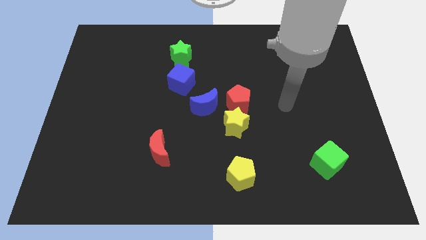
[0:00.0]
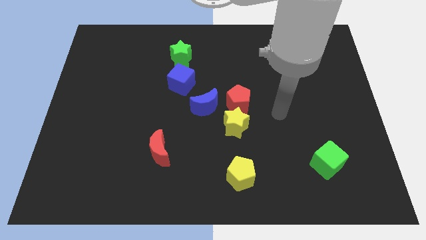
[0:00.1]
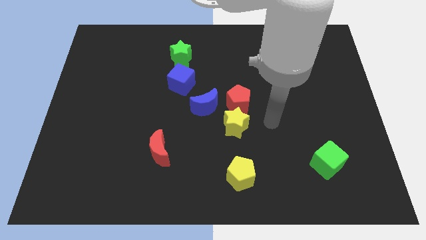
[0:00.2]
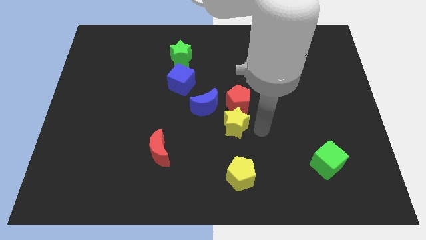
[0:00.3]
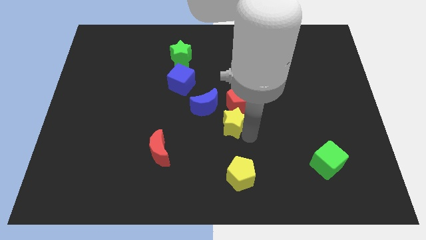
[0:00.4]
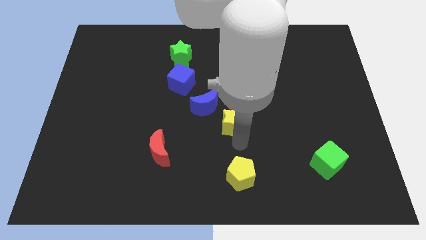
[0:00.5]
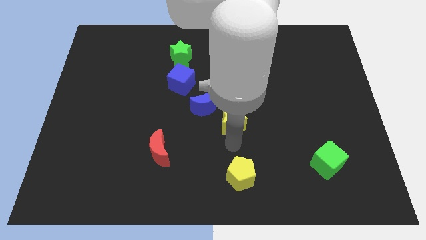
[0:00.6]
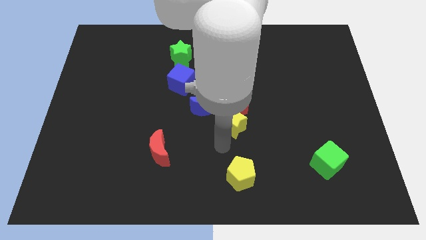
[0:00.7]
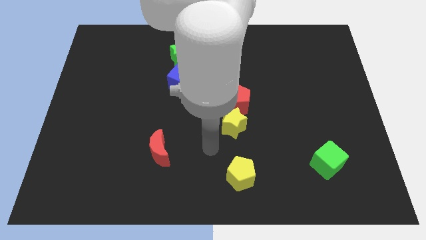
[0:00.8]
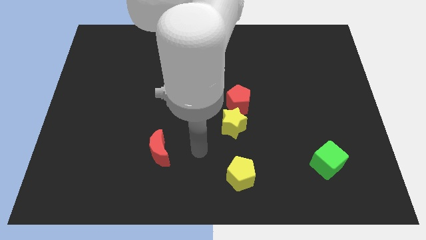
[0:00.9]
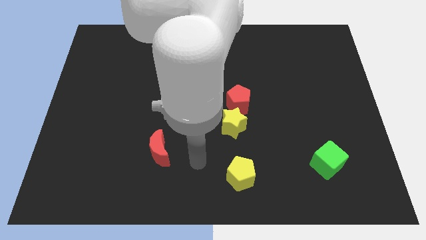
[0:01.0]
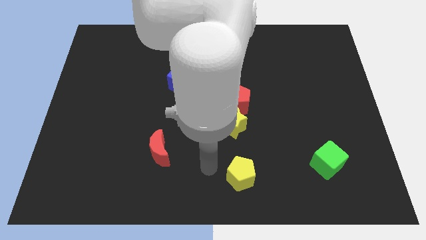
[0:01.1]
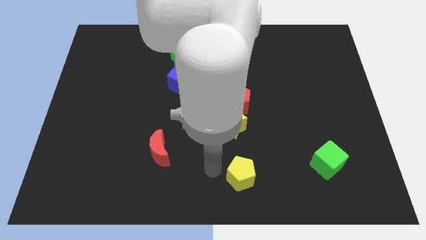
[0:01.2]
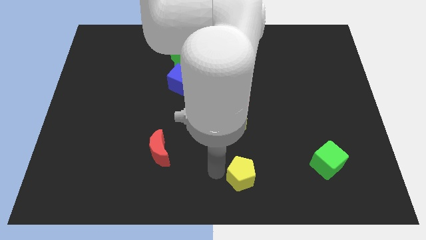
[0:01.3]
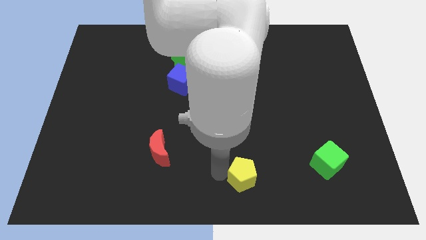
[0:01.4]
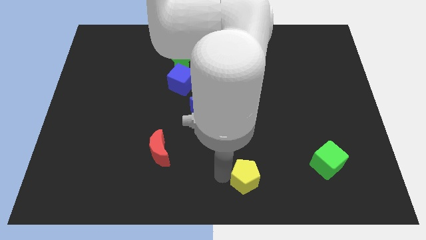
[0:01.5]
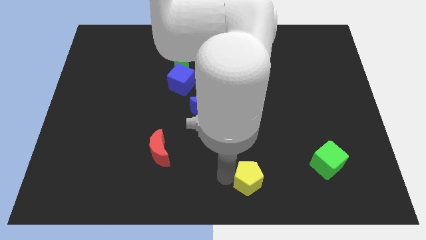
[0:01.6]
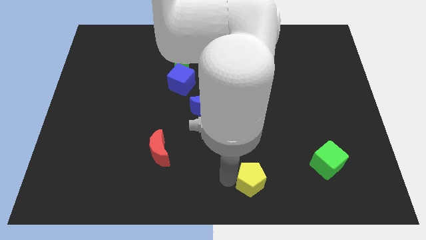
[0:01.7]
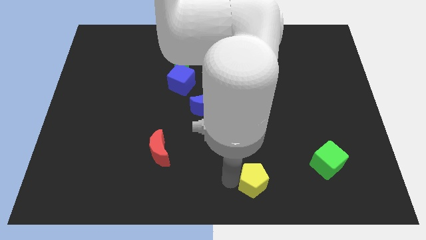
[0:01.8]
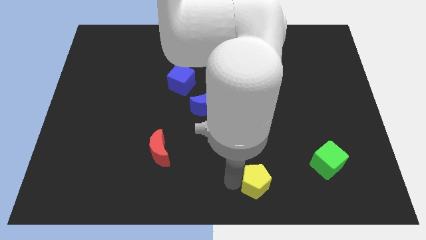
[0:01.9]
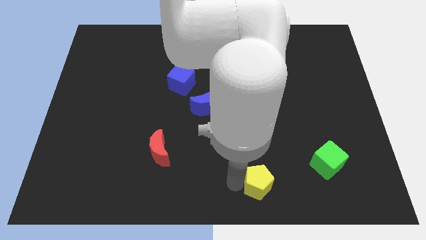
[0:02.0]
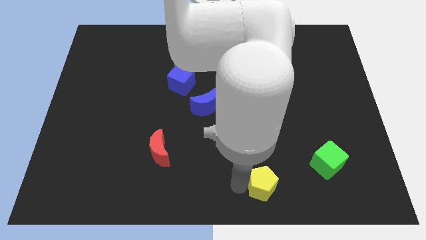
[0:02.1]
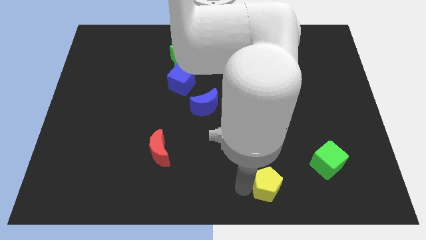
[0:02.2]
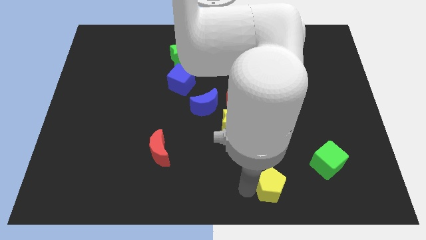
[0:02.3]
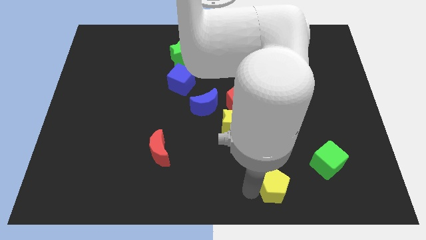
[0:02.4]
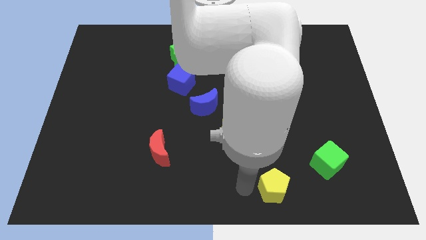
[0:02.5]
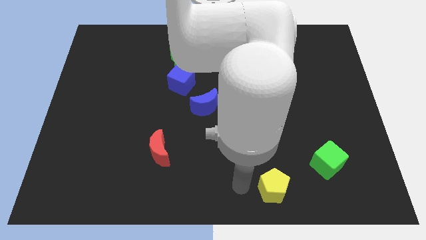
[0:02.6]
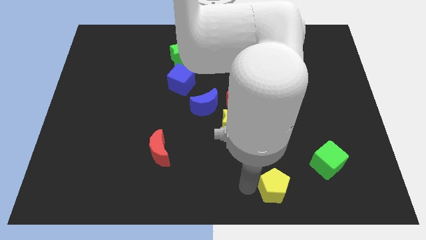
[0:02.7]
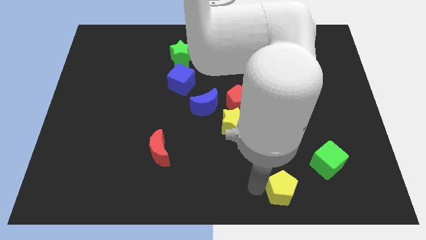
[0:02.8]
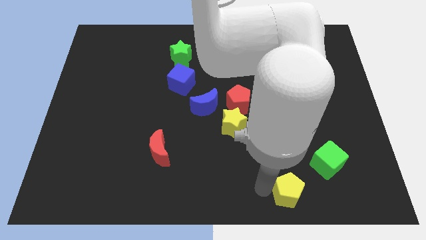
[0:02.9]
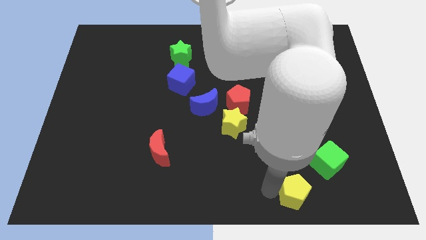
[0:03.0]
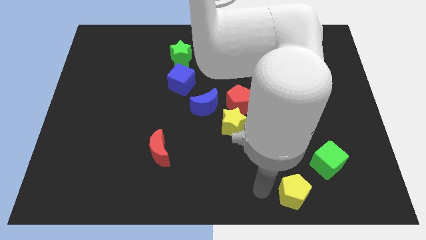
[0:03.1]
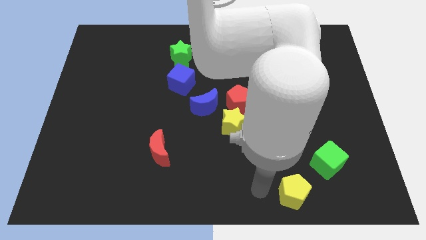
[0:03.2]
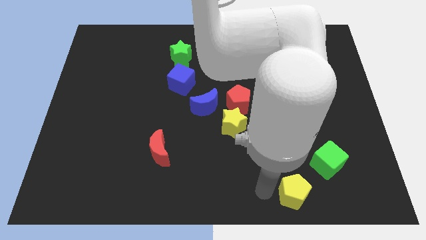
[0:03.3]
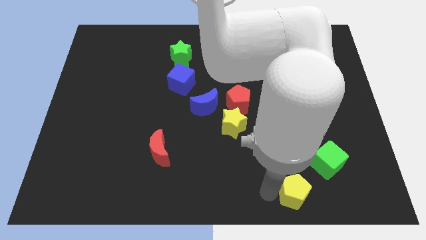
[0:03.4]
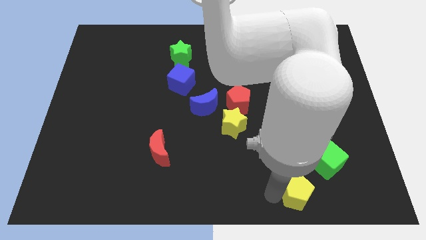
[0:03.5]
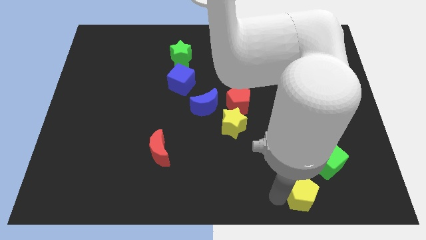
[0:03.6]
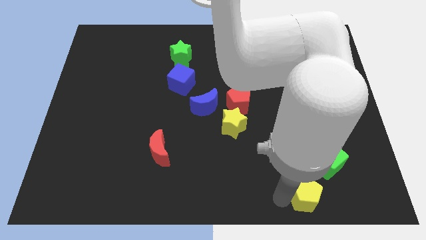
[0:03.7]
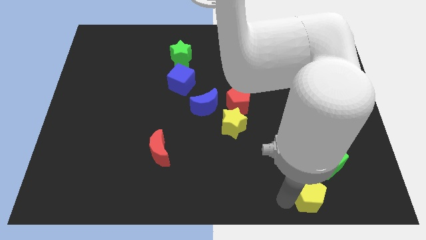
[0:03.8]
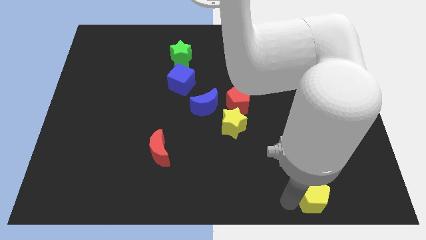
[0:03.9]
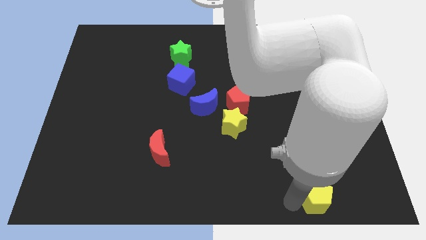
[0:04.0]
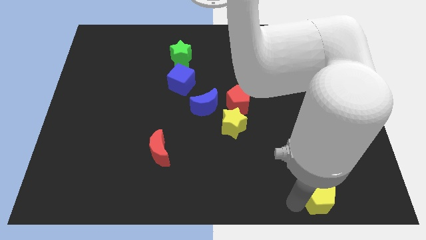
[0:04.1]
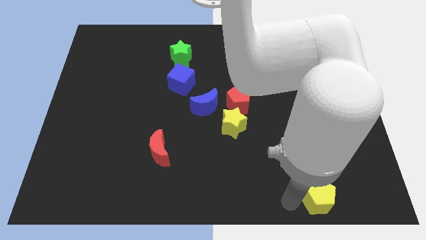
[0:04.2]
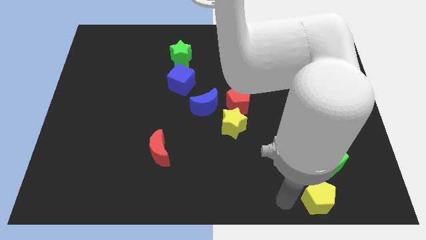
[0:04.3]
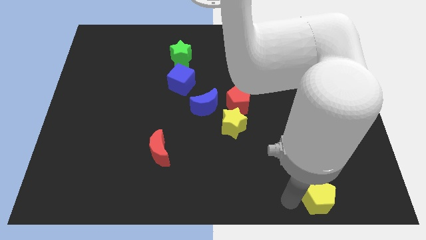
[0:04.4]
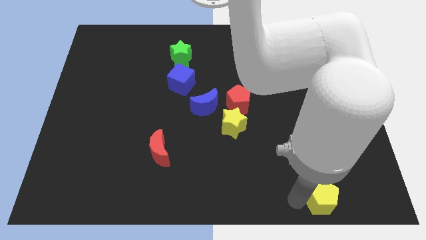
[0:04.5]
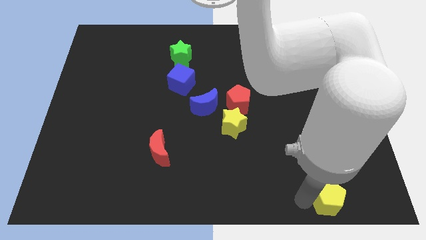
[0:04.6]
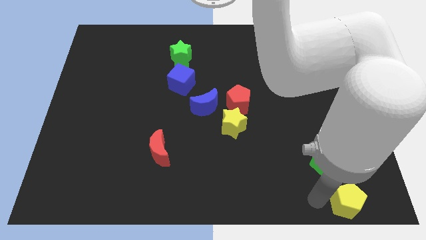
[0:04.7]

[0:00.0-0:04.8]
move the yellow pentagon to the bottom right of the board

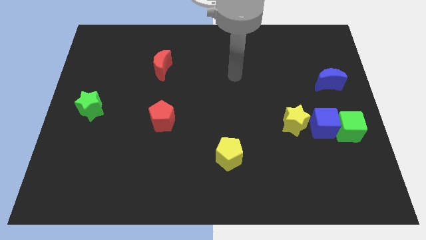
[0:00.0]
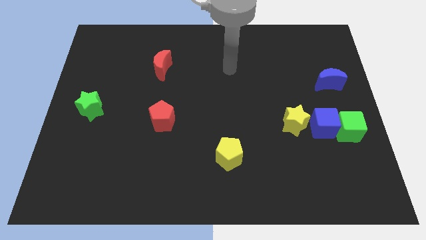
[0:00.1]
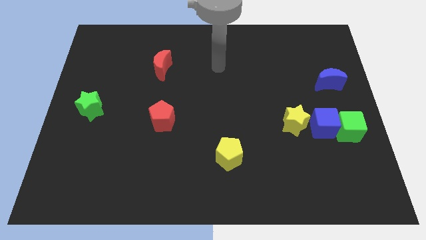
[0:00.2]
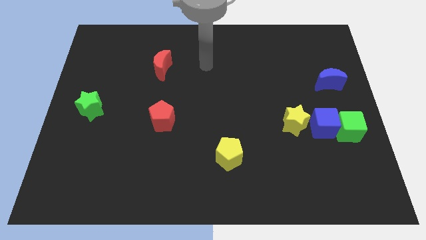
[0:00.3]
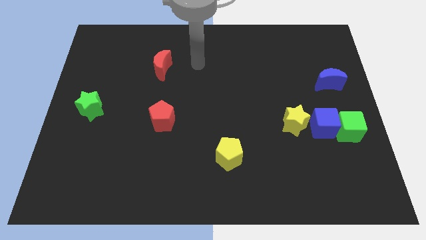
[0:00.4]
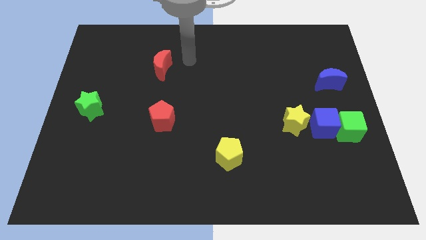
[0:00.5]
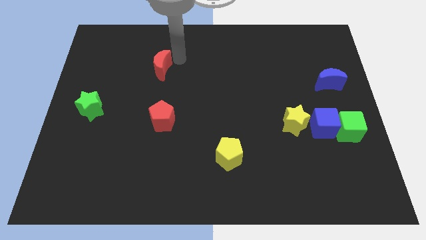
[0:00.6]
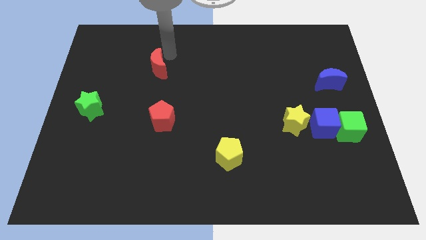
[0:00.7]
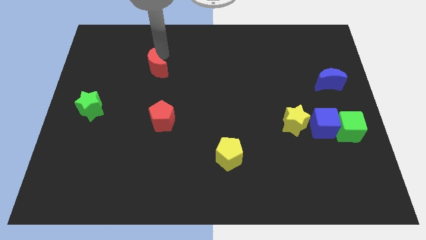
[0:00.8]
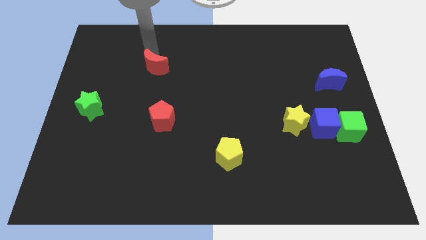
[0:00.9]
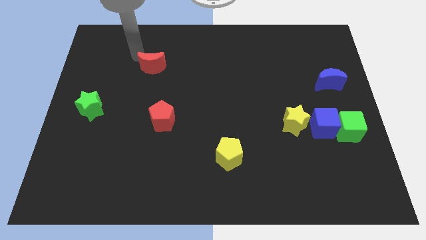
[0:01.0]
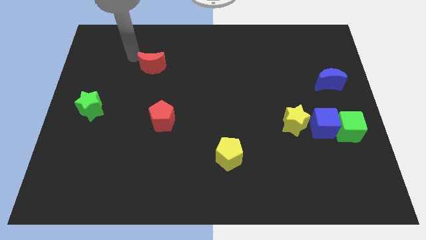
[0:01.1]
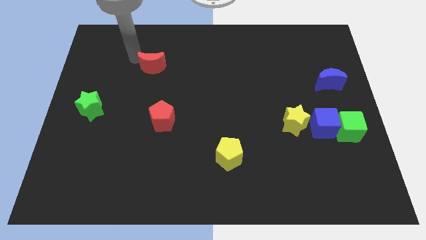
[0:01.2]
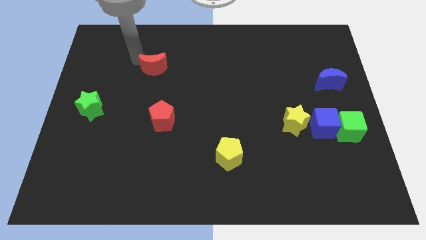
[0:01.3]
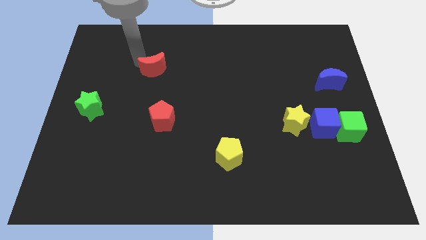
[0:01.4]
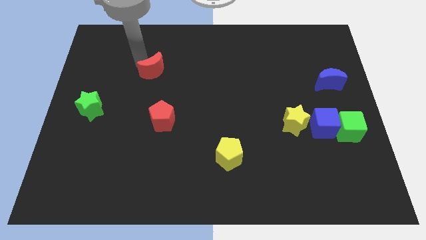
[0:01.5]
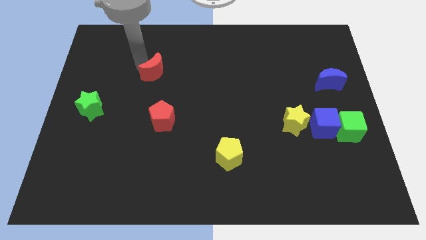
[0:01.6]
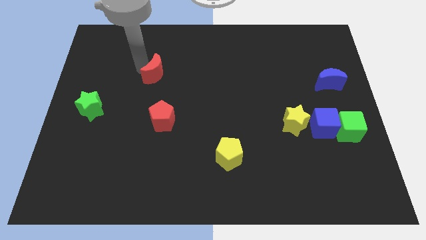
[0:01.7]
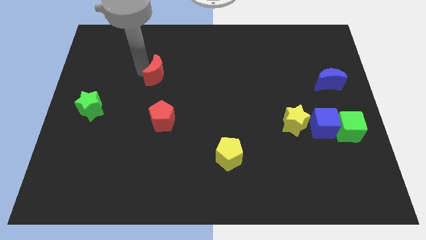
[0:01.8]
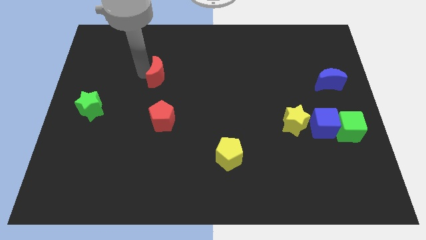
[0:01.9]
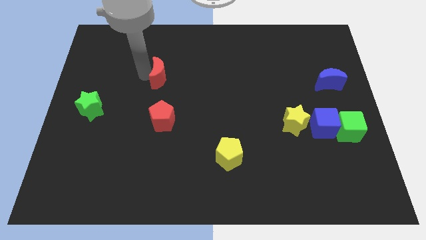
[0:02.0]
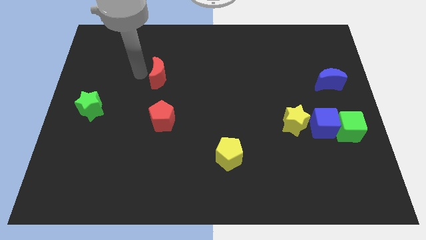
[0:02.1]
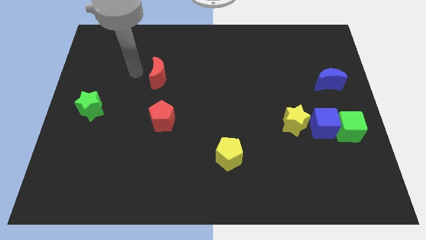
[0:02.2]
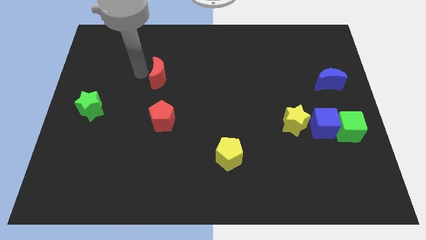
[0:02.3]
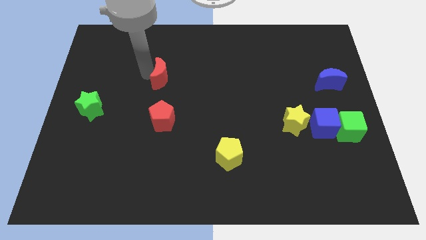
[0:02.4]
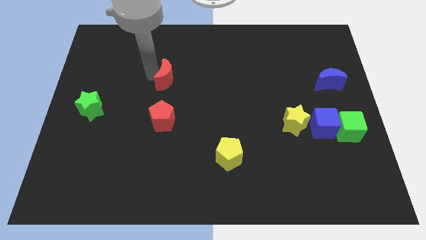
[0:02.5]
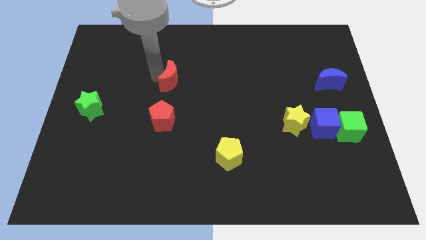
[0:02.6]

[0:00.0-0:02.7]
push the red moon to the center
